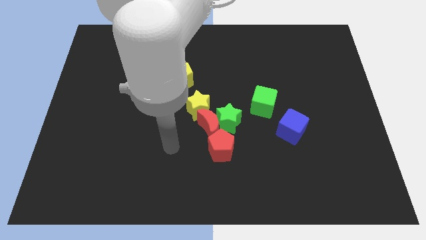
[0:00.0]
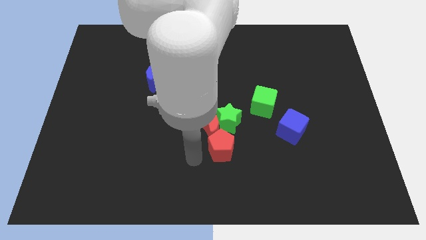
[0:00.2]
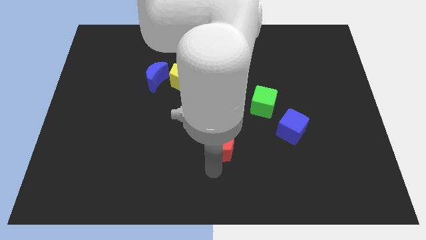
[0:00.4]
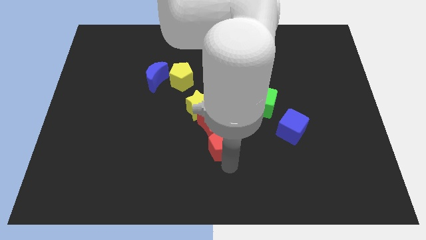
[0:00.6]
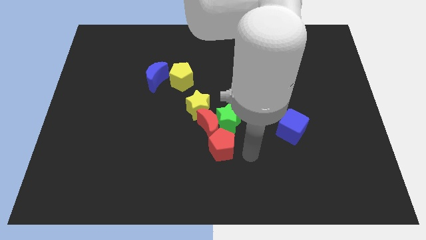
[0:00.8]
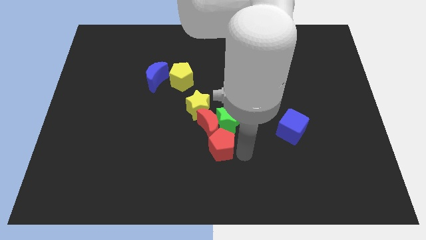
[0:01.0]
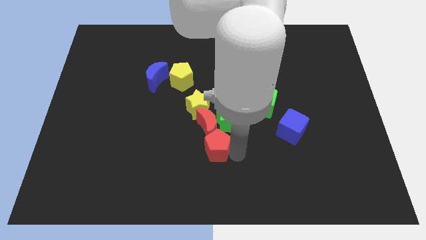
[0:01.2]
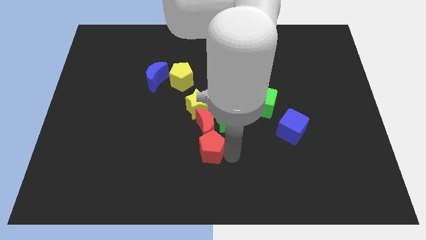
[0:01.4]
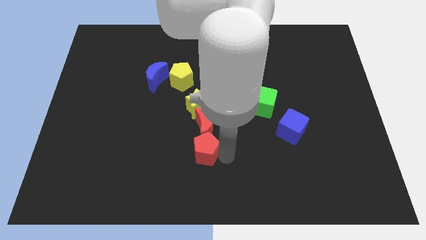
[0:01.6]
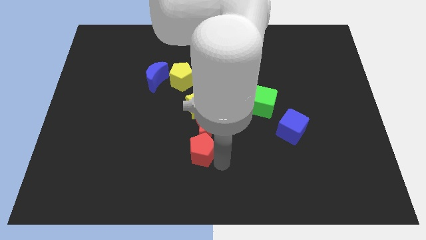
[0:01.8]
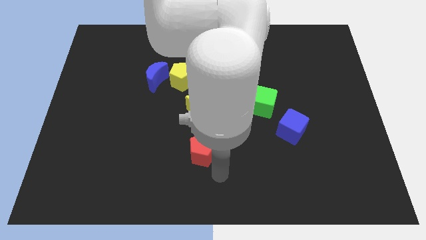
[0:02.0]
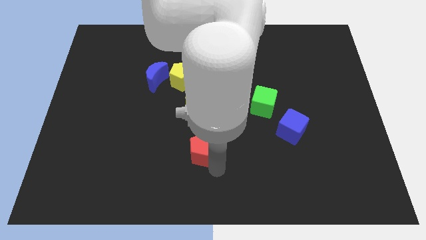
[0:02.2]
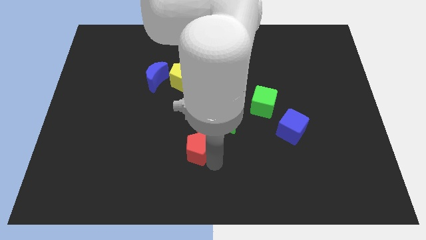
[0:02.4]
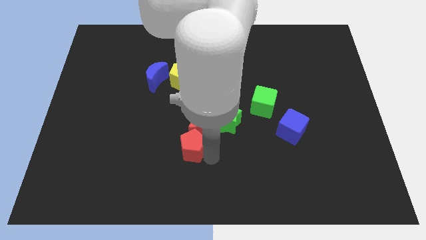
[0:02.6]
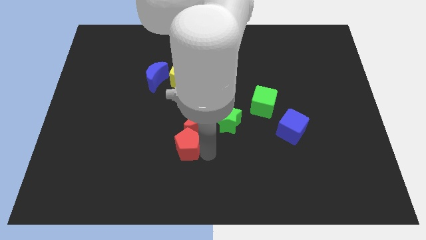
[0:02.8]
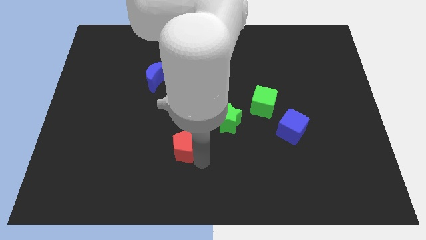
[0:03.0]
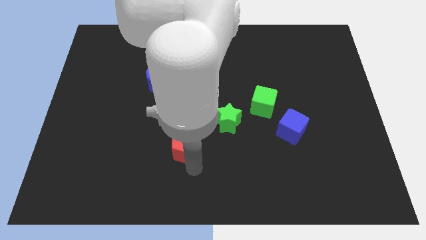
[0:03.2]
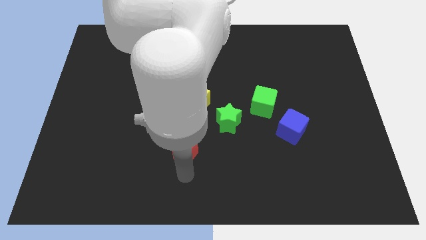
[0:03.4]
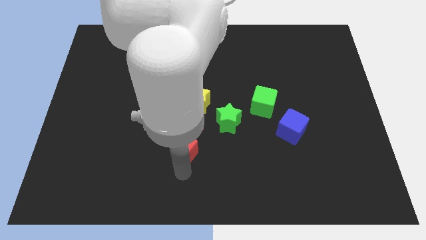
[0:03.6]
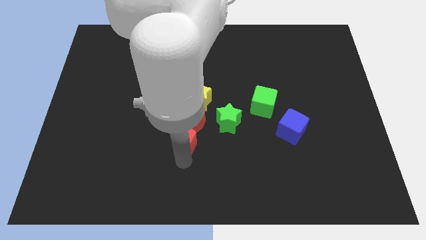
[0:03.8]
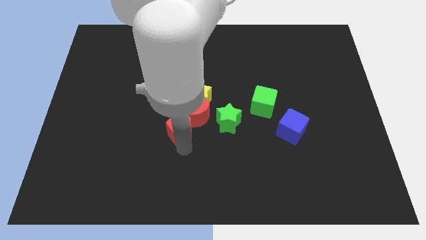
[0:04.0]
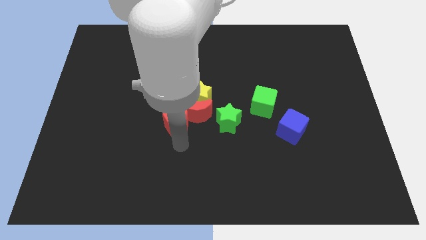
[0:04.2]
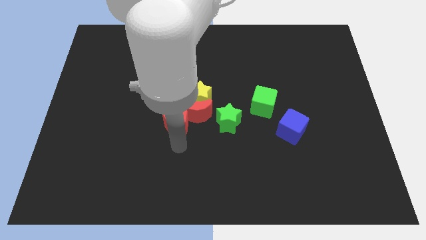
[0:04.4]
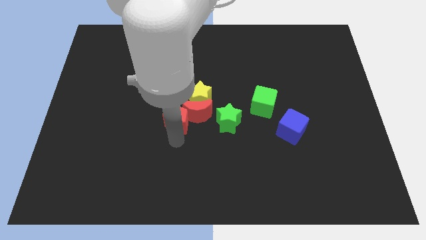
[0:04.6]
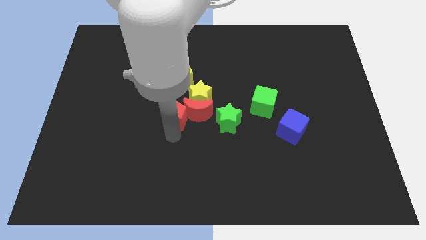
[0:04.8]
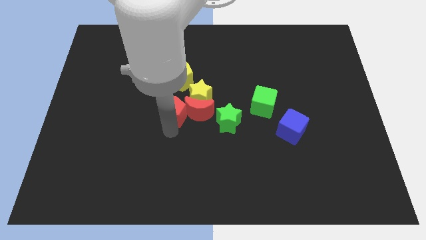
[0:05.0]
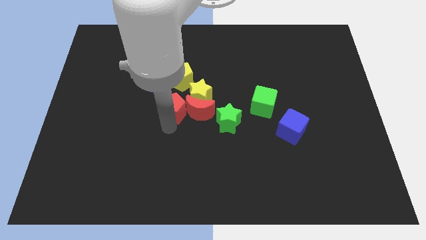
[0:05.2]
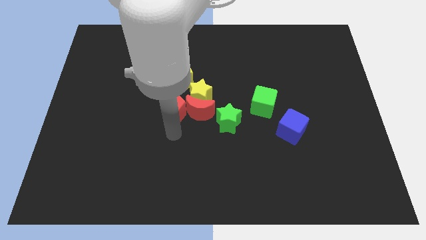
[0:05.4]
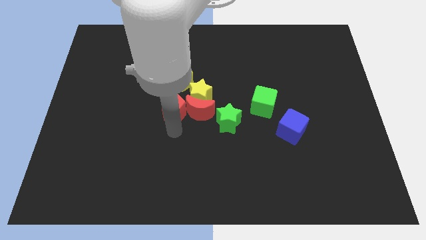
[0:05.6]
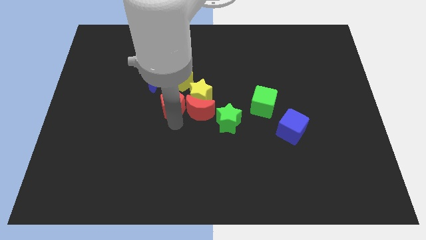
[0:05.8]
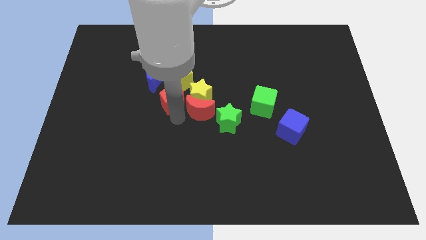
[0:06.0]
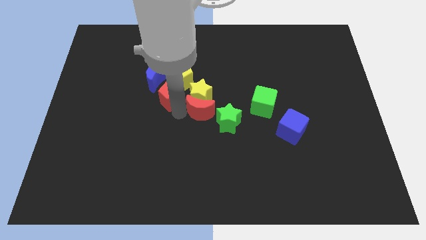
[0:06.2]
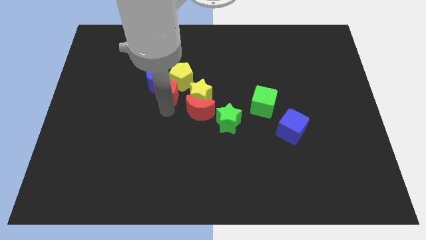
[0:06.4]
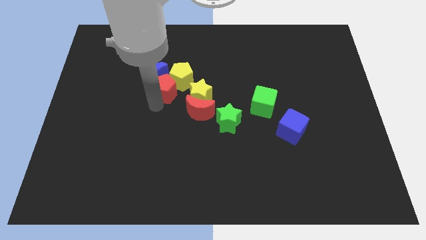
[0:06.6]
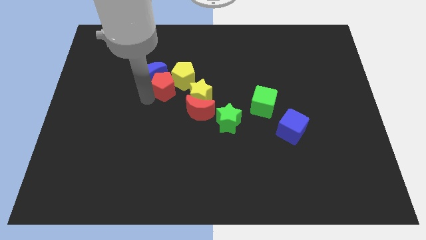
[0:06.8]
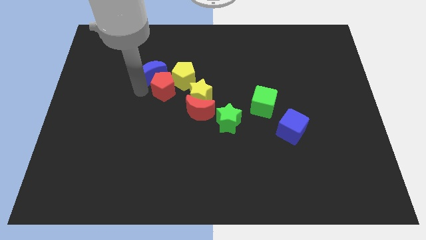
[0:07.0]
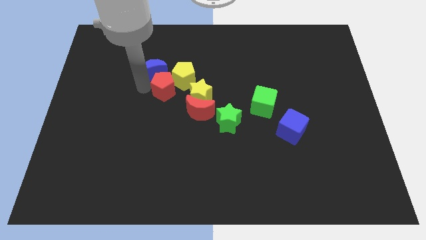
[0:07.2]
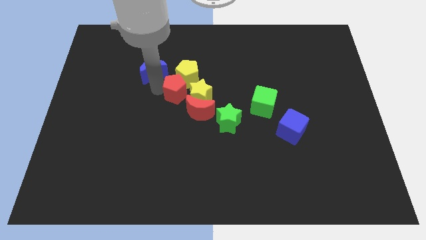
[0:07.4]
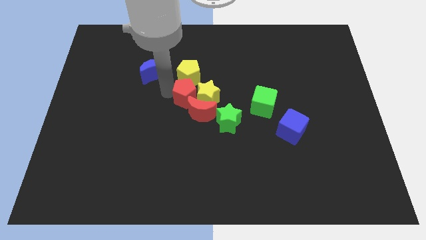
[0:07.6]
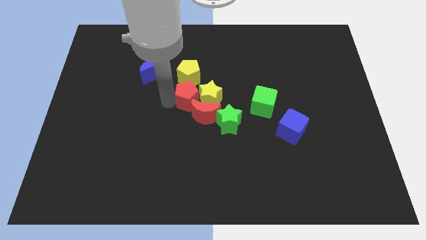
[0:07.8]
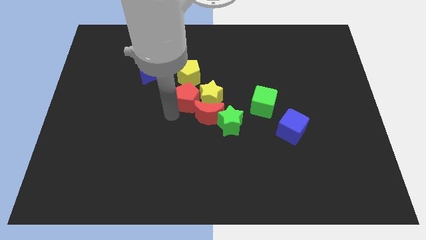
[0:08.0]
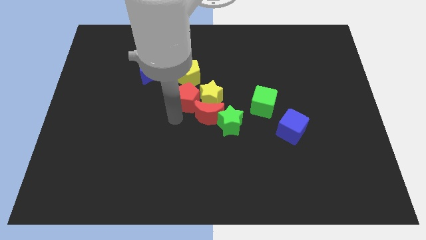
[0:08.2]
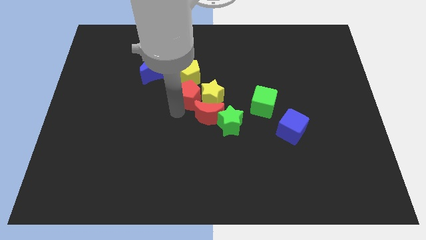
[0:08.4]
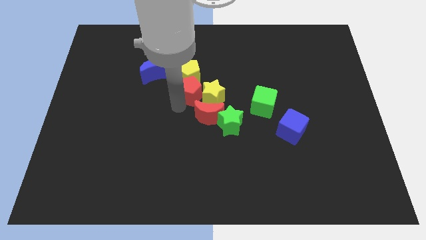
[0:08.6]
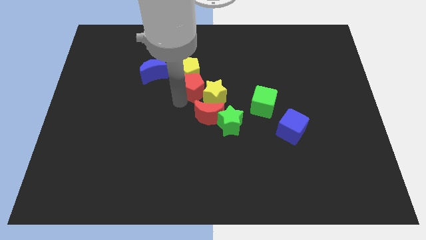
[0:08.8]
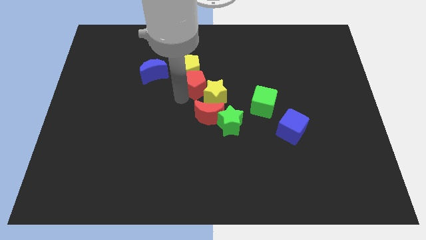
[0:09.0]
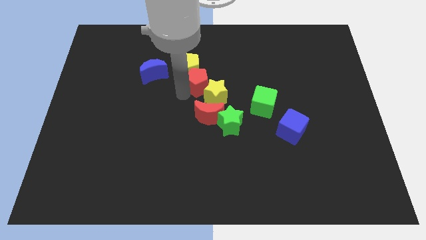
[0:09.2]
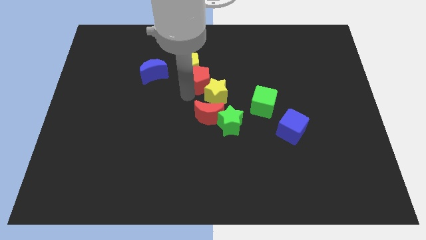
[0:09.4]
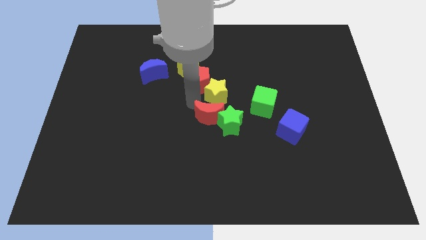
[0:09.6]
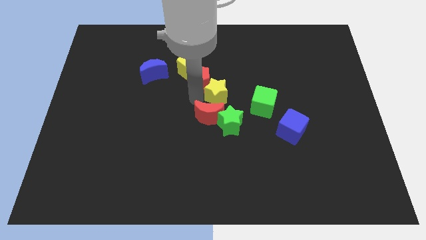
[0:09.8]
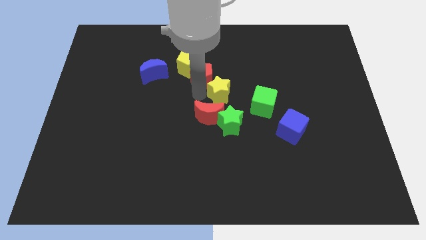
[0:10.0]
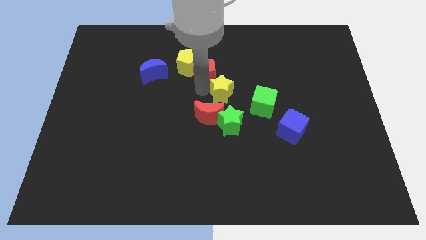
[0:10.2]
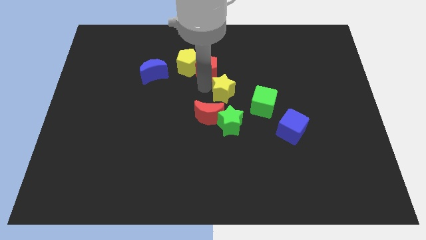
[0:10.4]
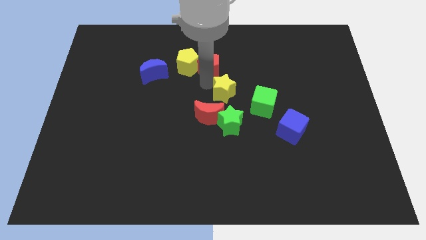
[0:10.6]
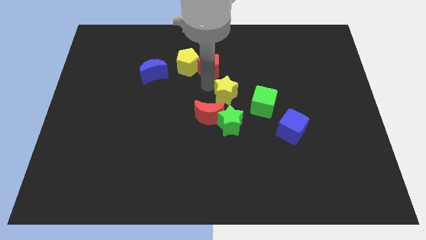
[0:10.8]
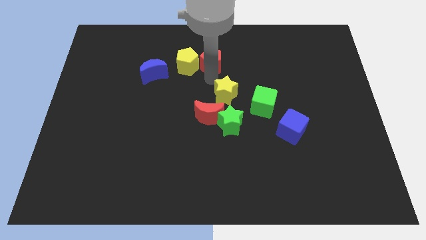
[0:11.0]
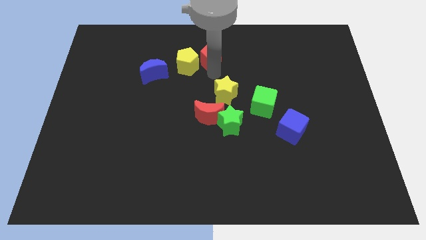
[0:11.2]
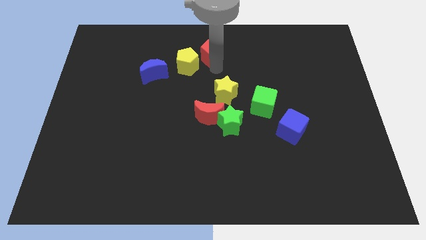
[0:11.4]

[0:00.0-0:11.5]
push the red pentagon to the top side

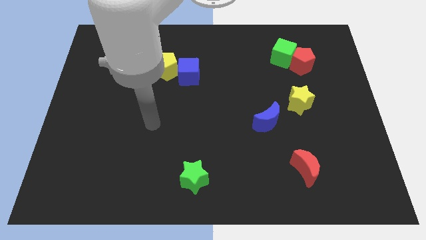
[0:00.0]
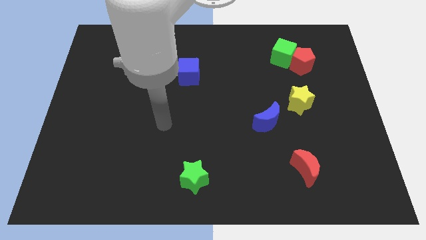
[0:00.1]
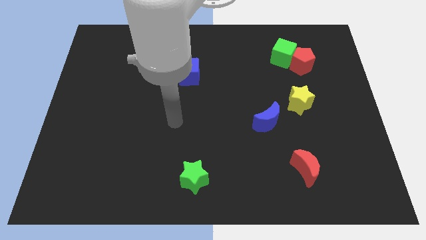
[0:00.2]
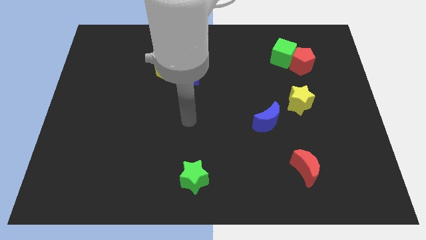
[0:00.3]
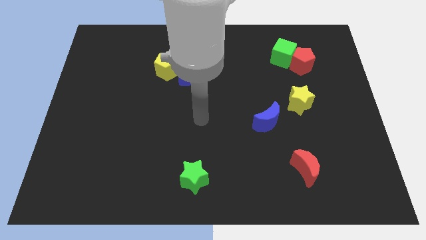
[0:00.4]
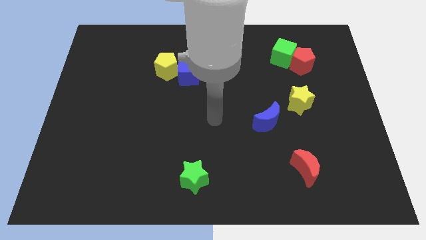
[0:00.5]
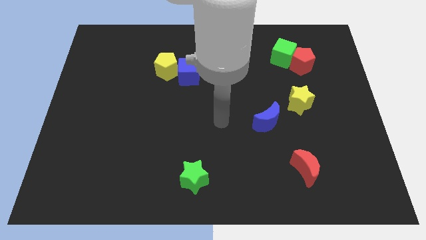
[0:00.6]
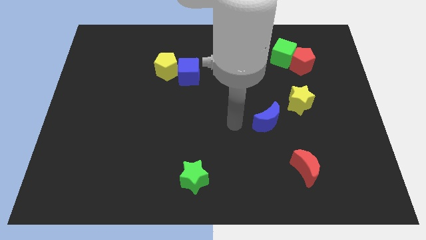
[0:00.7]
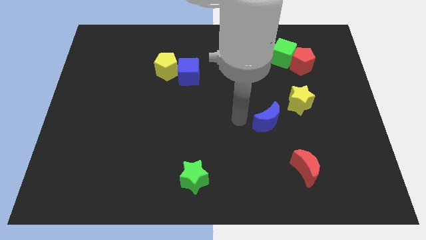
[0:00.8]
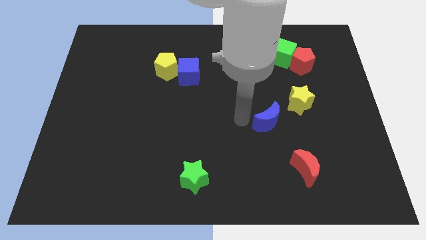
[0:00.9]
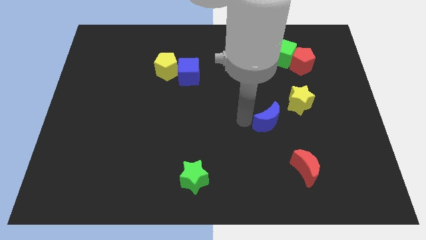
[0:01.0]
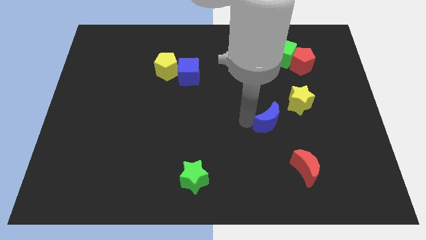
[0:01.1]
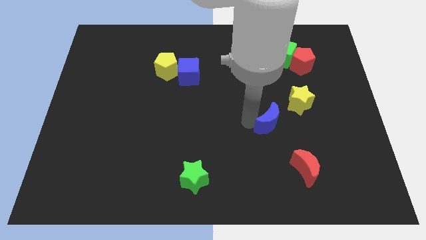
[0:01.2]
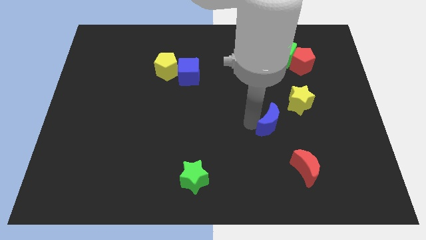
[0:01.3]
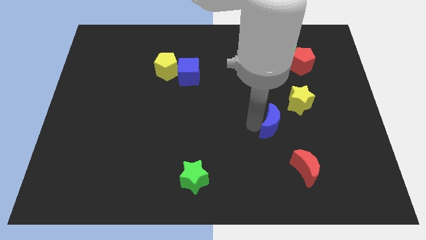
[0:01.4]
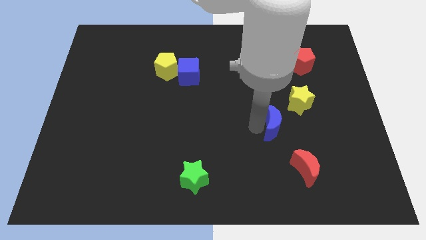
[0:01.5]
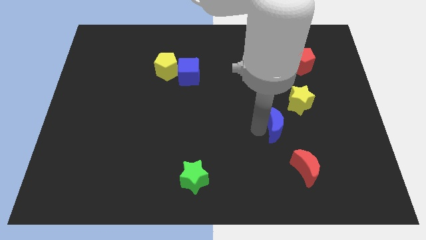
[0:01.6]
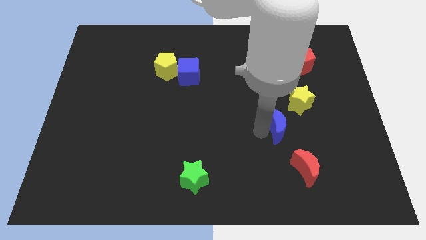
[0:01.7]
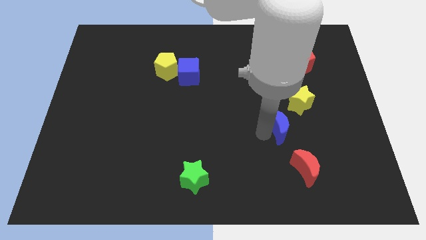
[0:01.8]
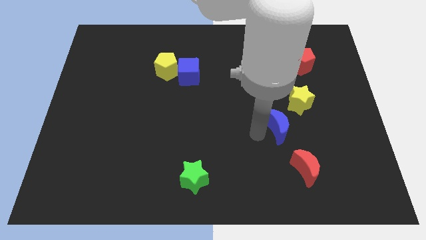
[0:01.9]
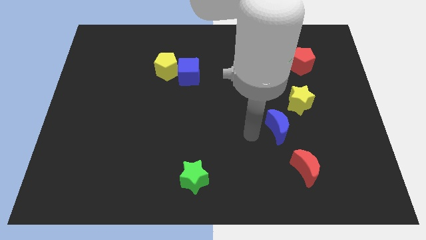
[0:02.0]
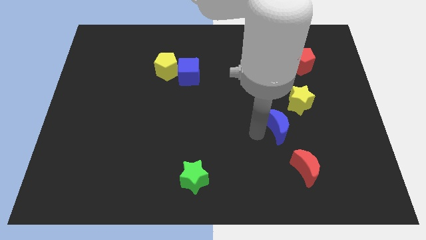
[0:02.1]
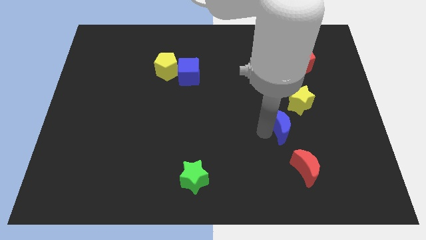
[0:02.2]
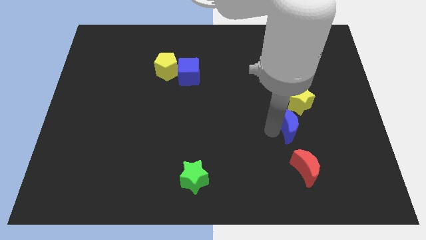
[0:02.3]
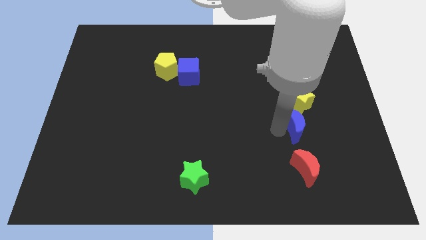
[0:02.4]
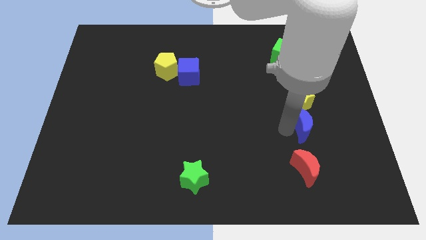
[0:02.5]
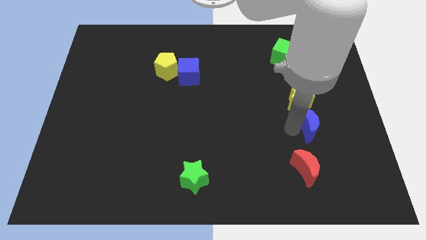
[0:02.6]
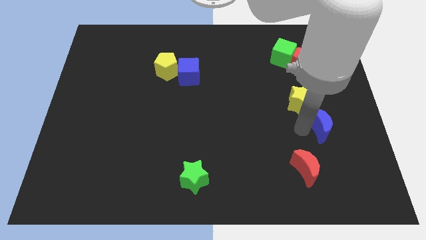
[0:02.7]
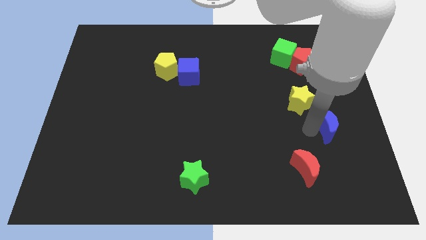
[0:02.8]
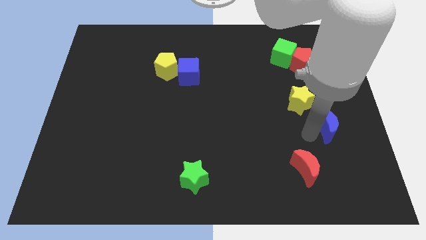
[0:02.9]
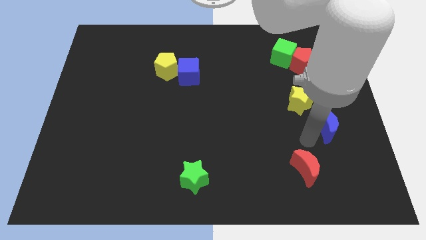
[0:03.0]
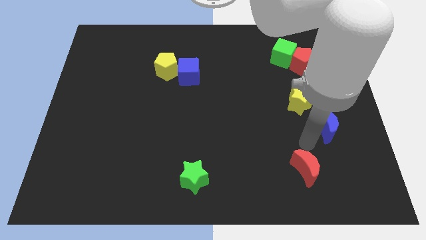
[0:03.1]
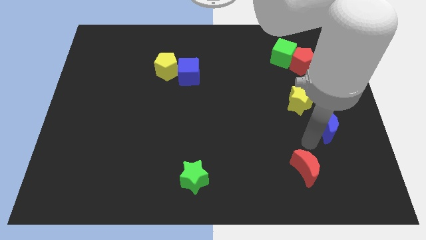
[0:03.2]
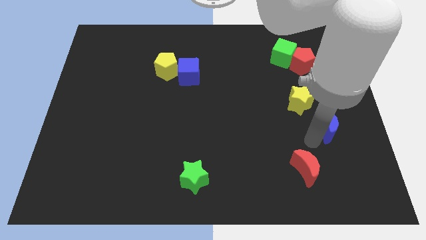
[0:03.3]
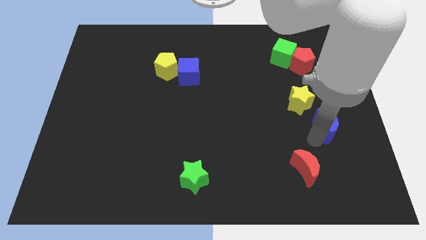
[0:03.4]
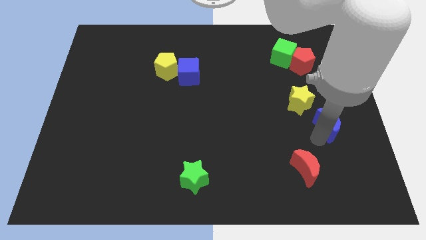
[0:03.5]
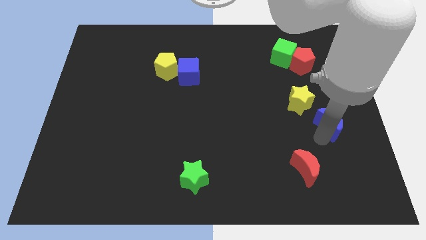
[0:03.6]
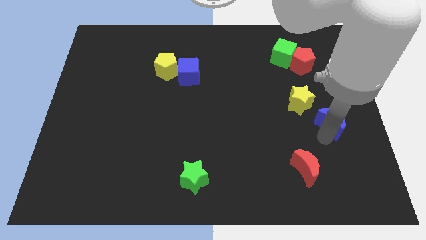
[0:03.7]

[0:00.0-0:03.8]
slide the blue moon to the right side
